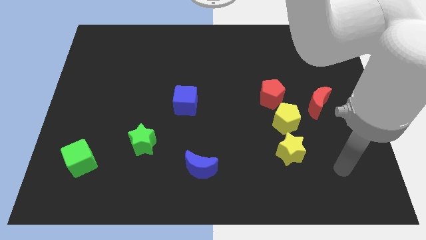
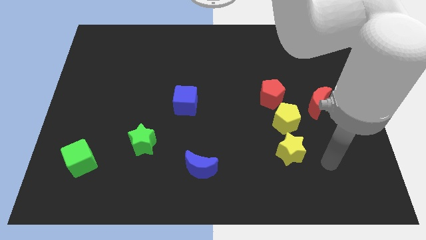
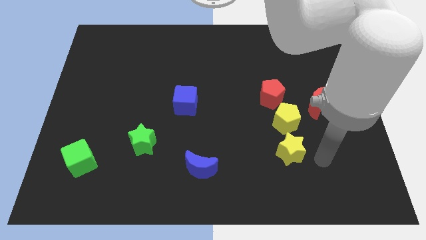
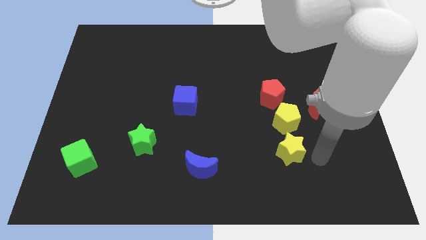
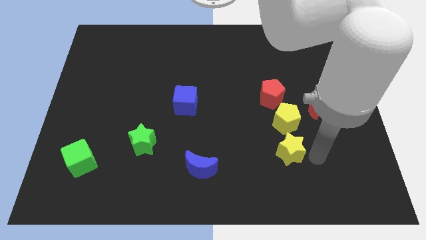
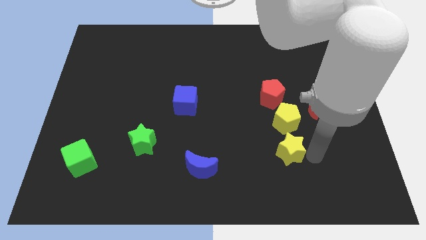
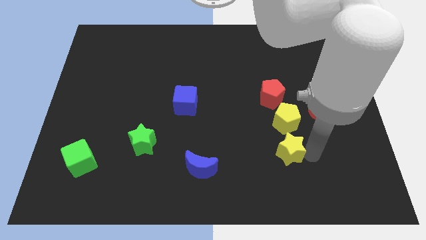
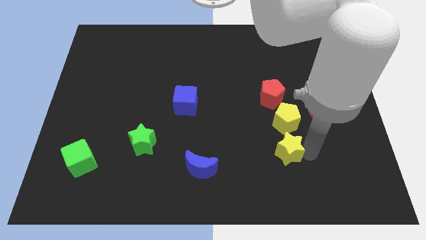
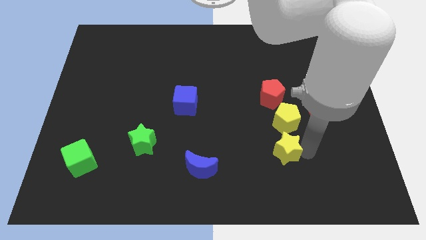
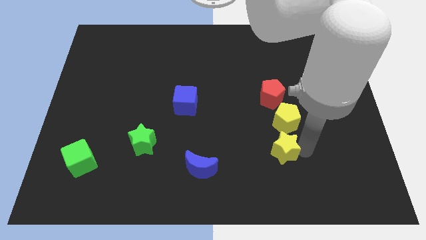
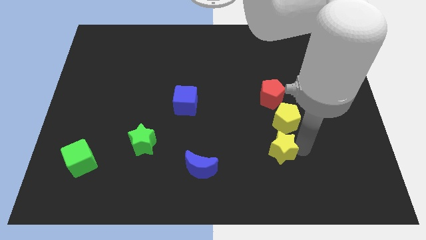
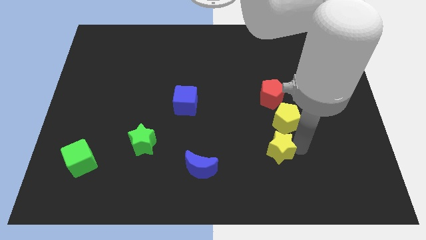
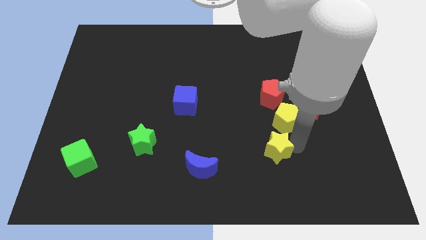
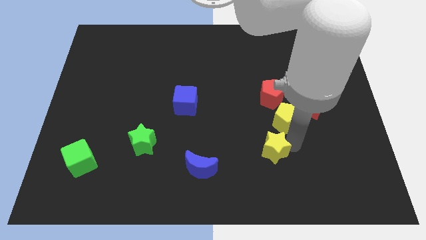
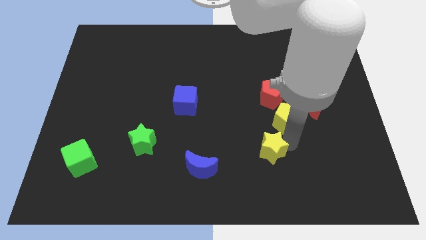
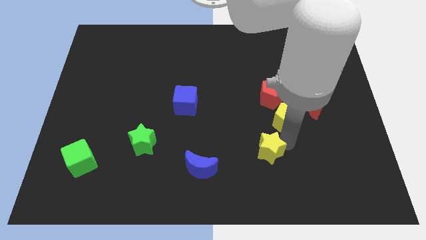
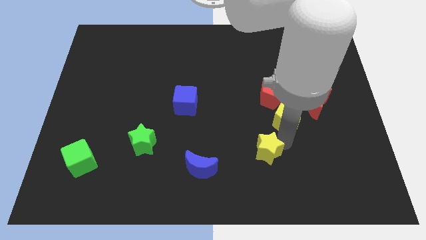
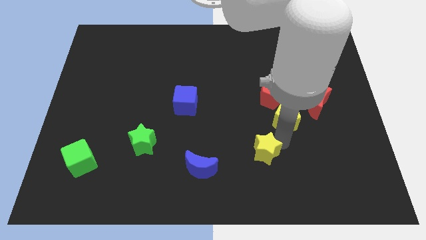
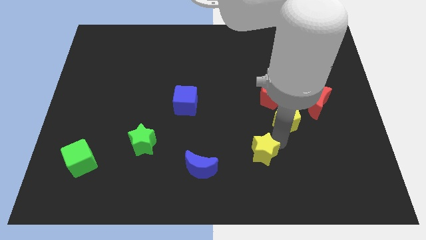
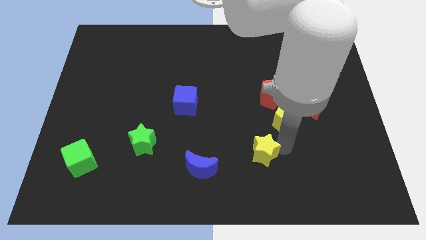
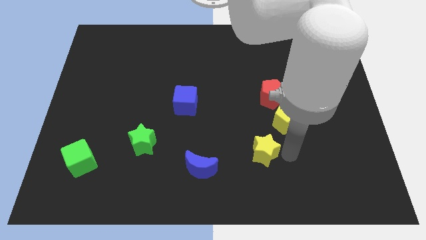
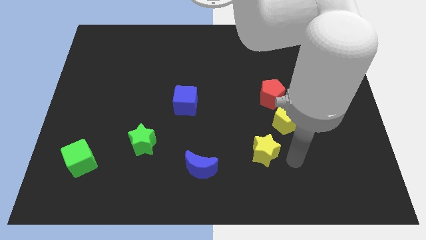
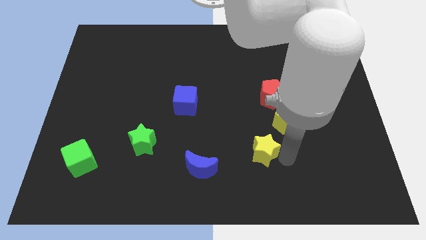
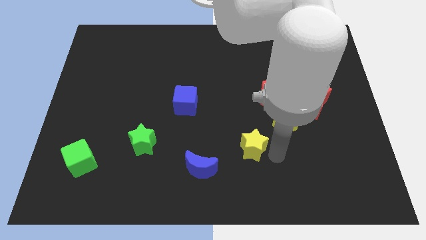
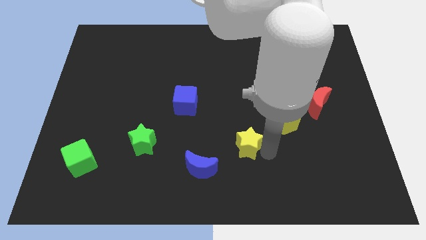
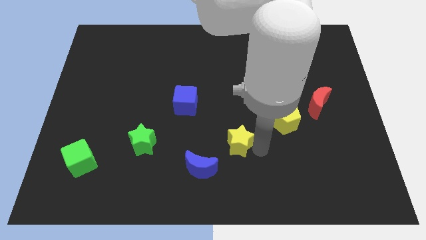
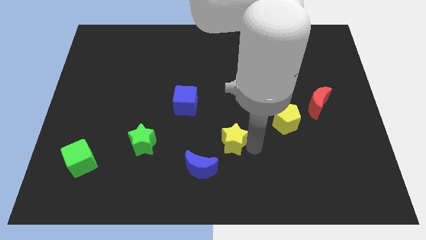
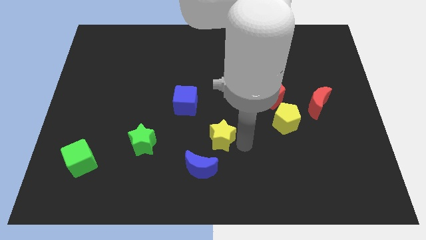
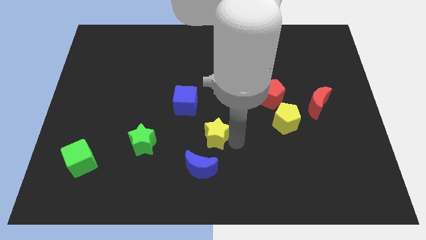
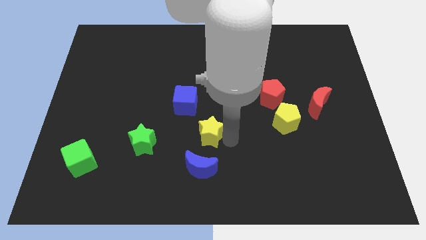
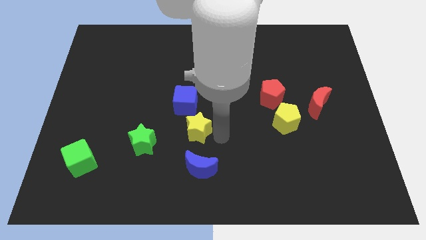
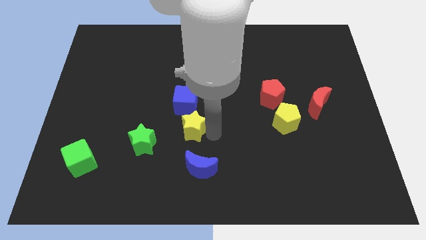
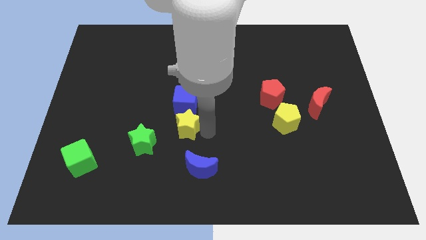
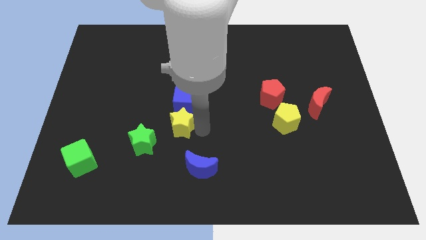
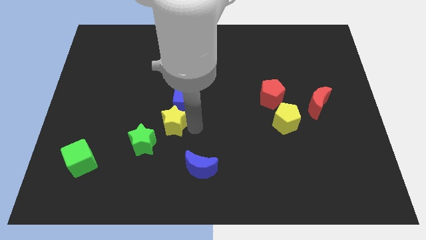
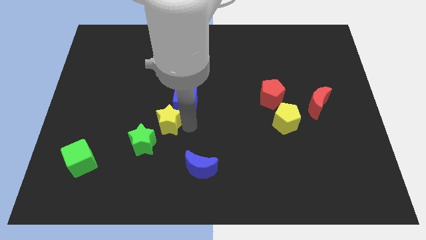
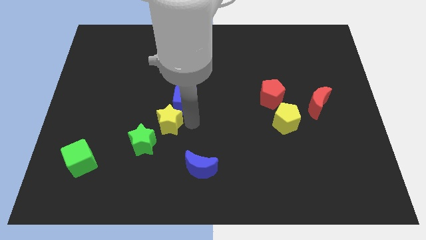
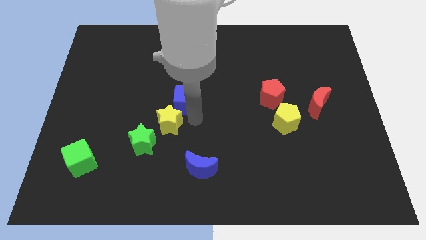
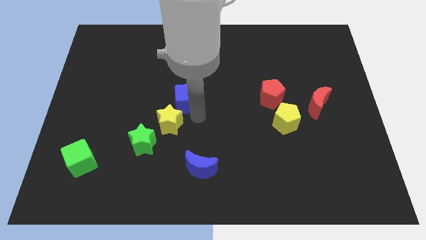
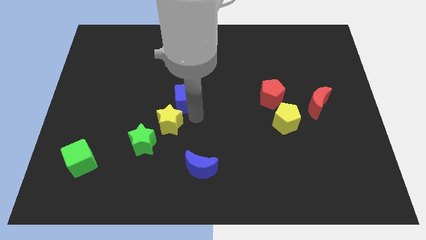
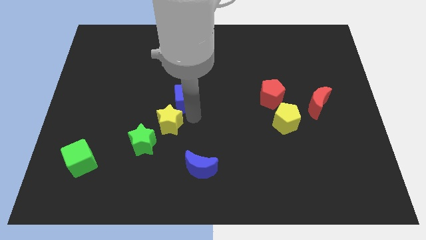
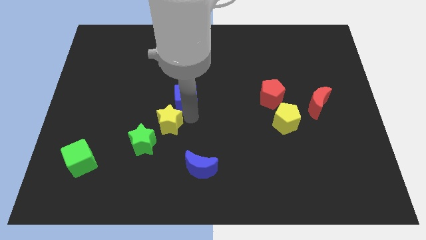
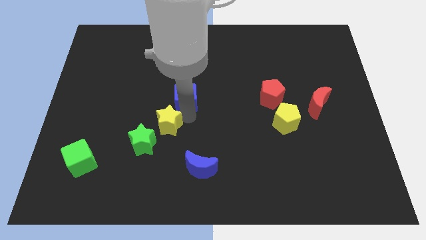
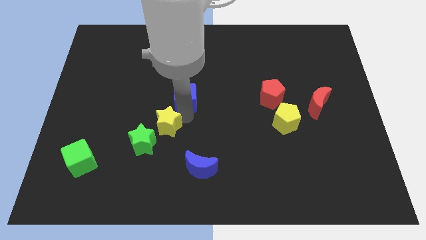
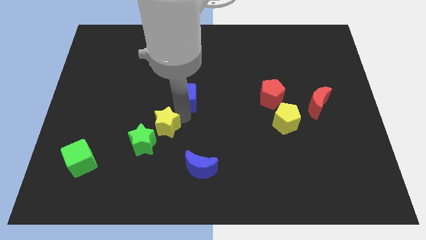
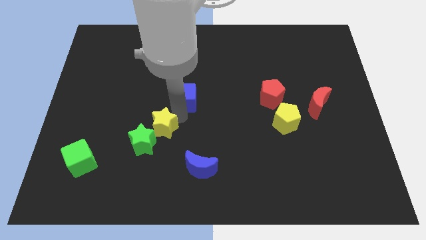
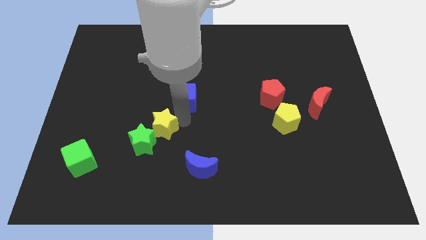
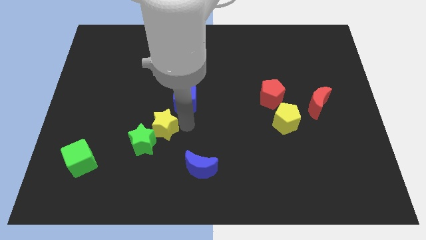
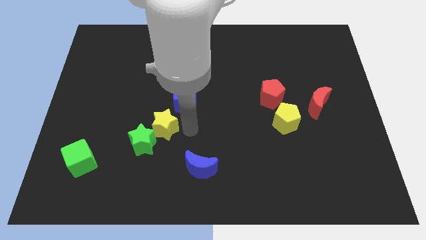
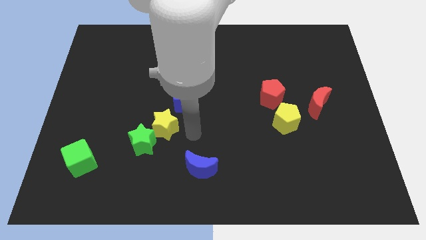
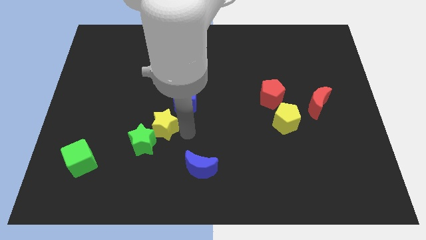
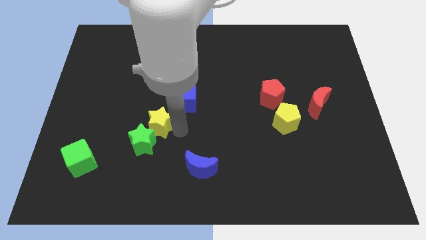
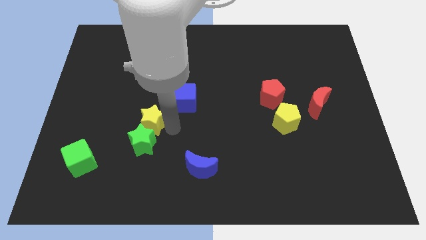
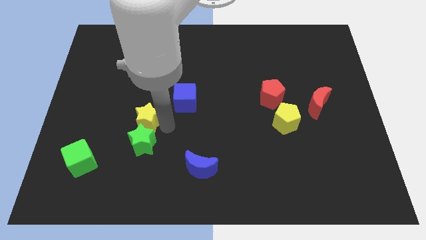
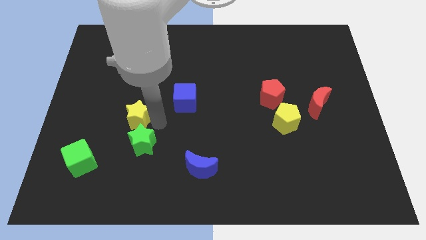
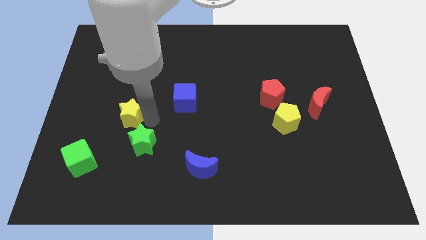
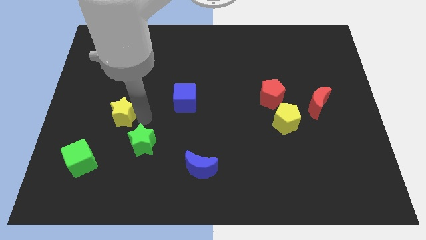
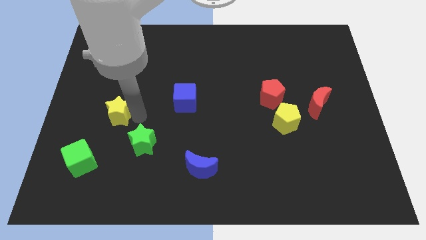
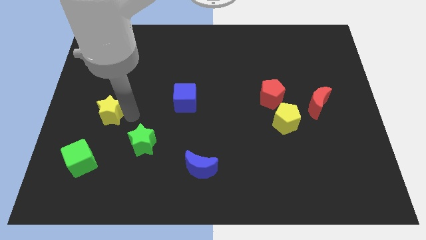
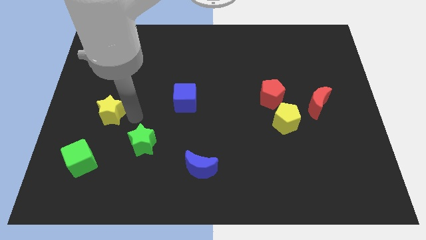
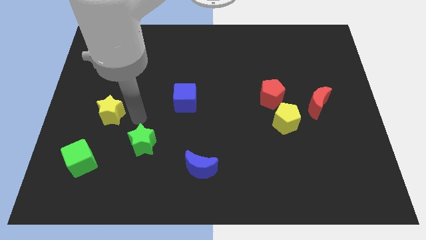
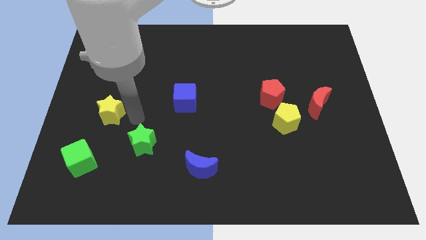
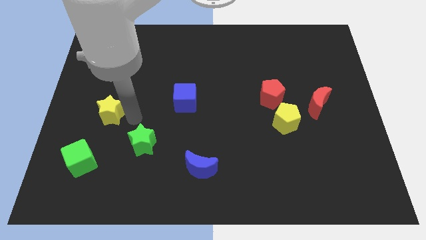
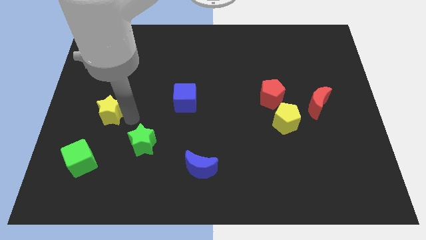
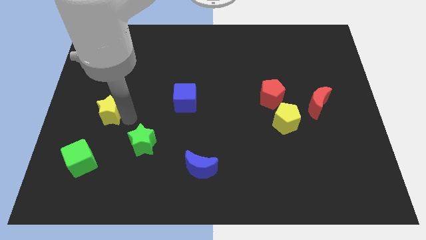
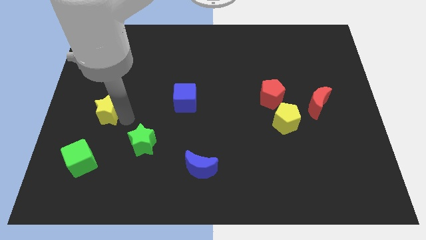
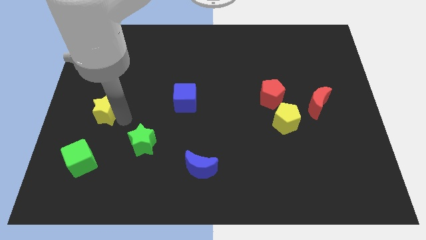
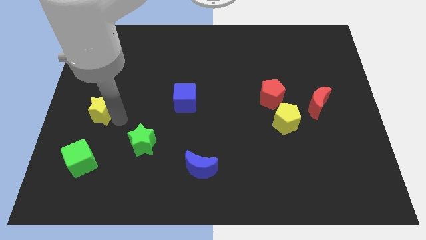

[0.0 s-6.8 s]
push the yellow star to the left side of the board

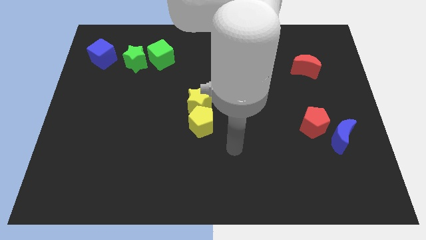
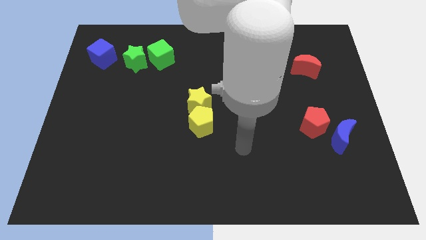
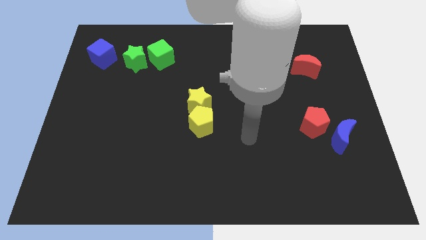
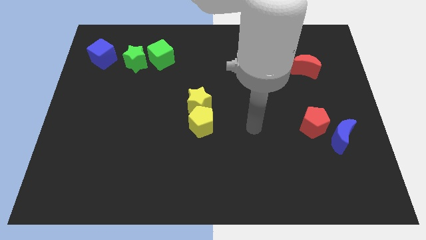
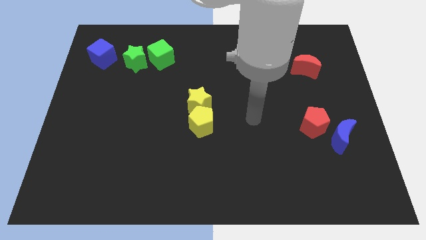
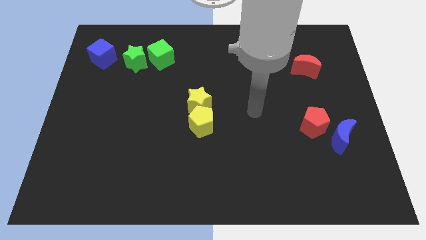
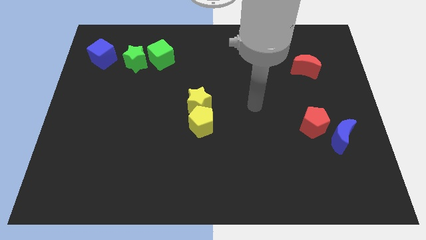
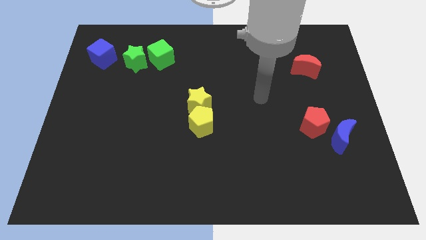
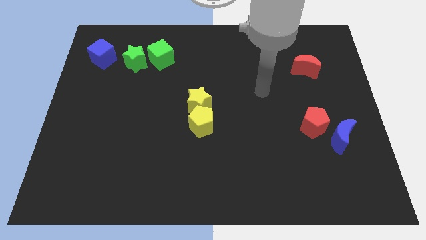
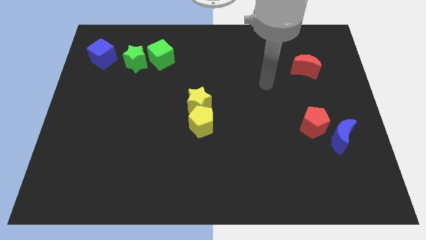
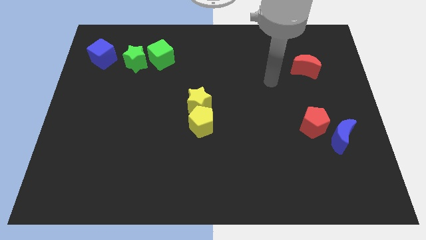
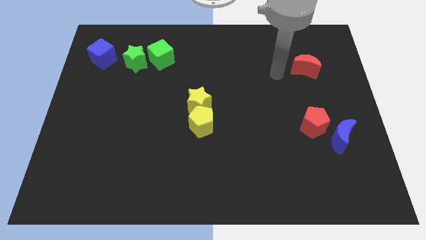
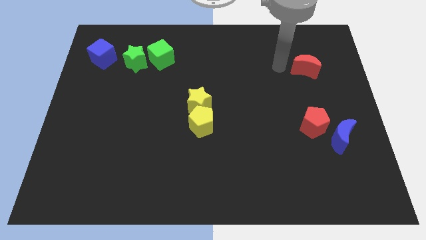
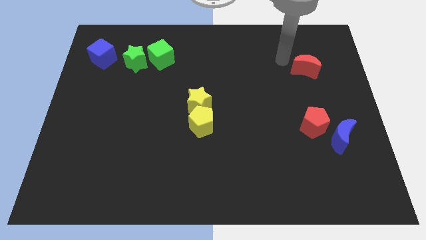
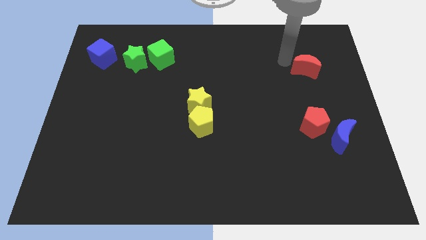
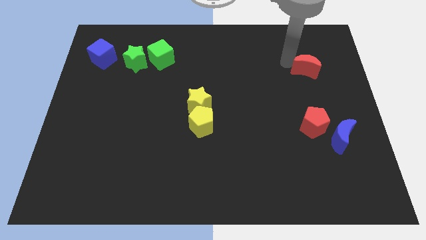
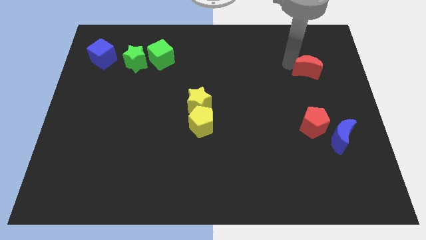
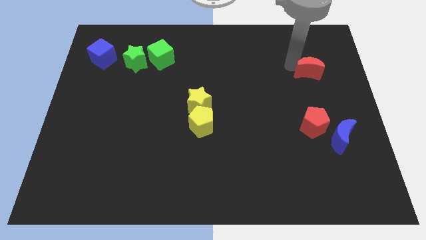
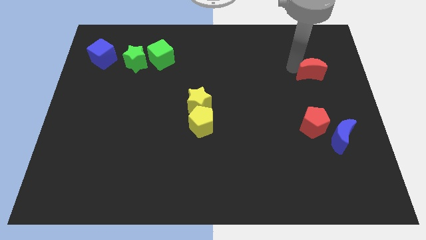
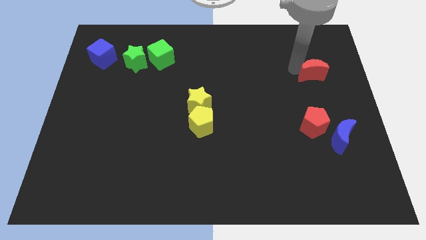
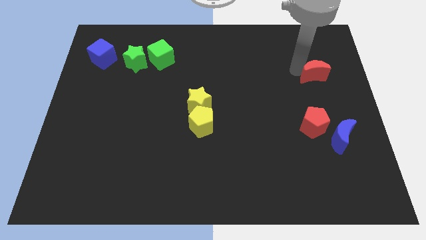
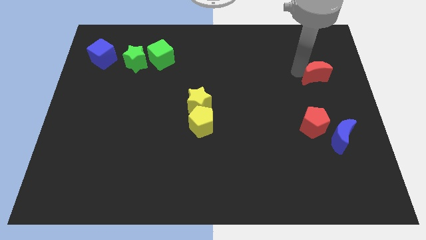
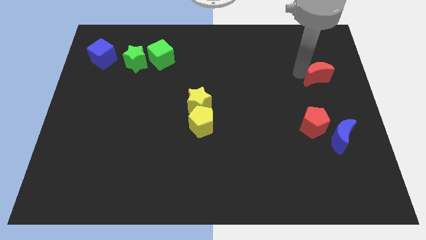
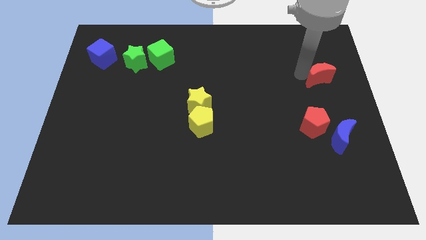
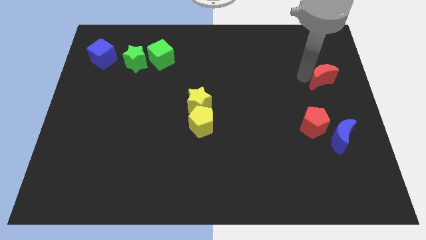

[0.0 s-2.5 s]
push the red moon to the center right
